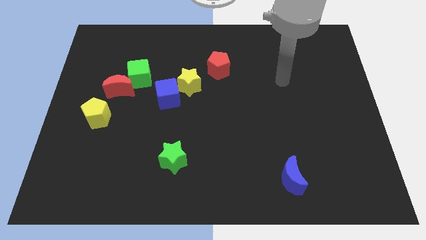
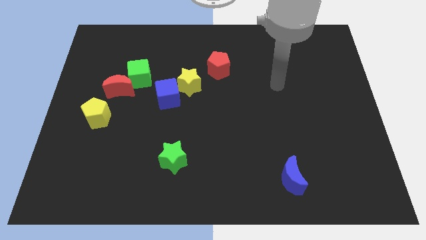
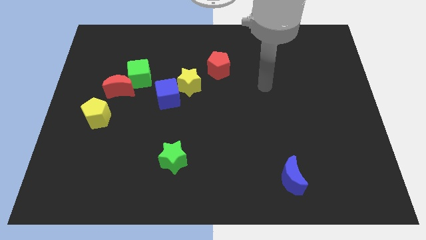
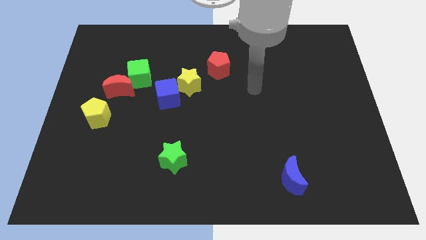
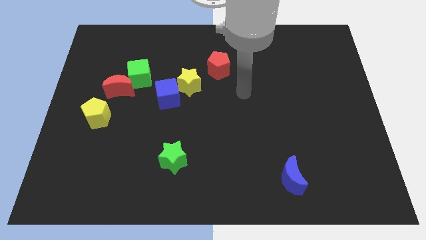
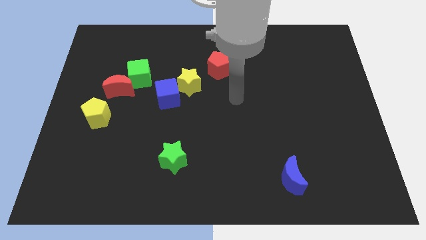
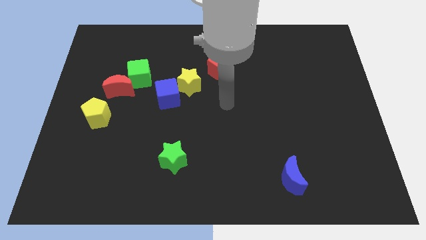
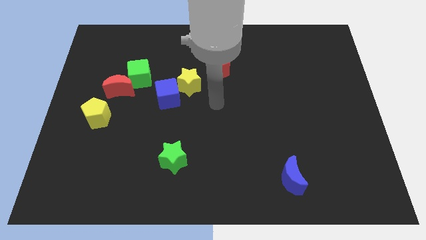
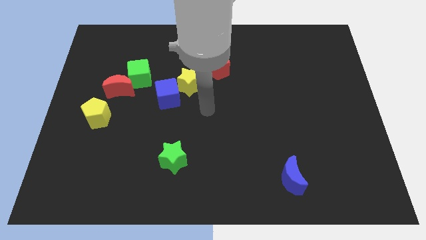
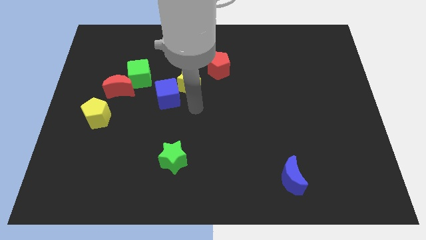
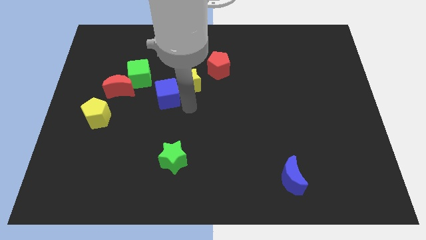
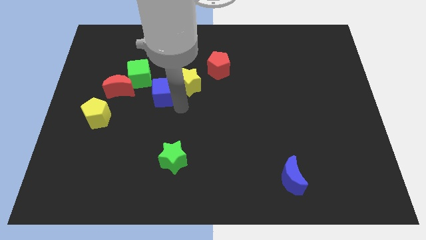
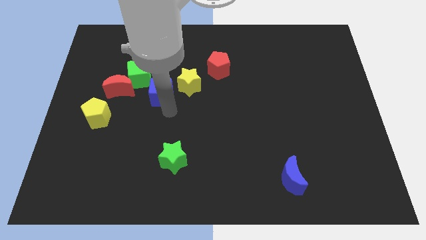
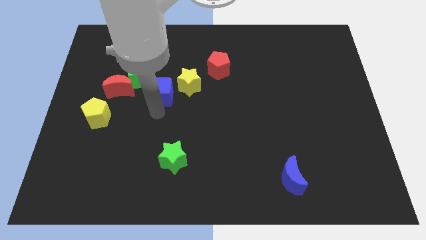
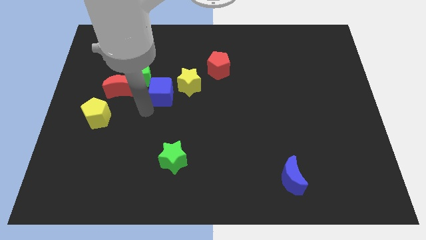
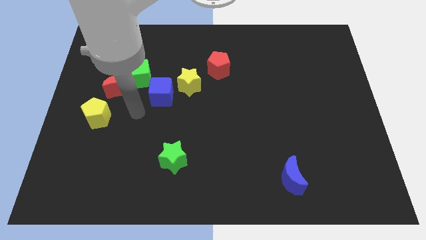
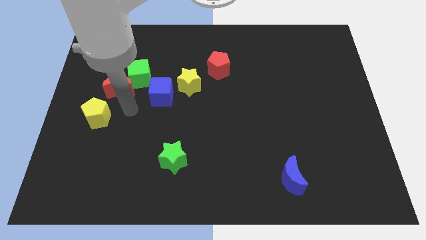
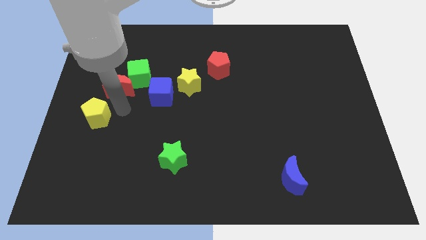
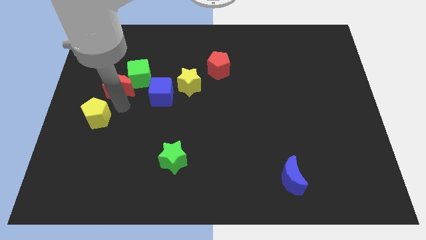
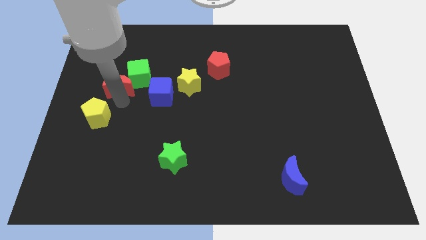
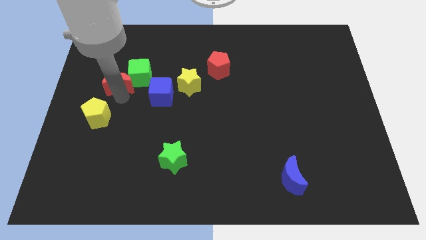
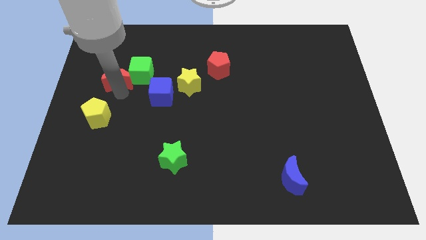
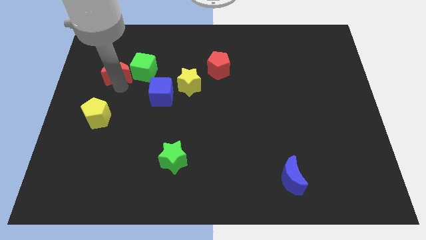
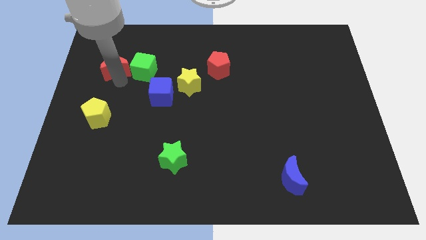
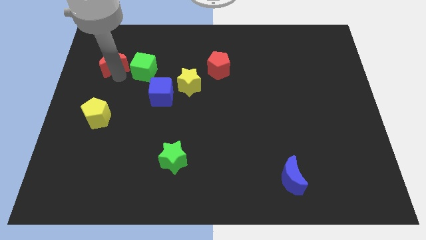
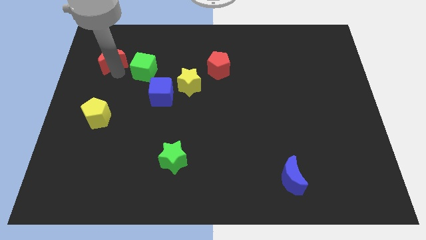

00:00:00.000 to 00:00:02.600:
move the red moon away from the green cube and yellow pentagon

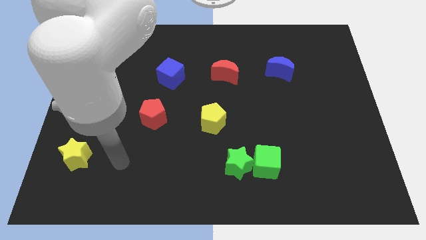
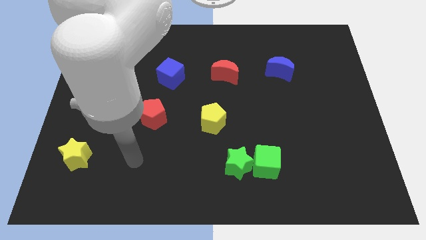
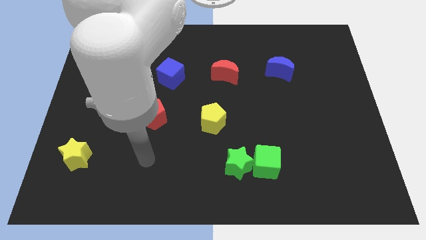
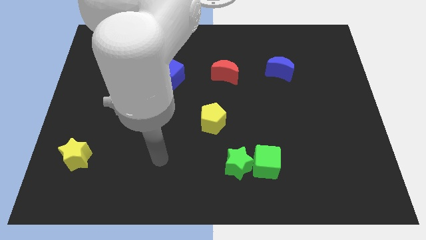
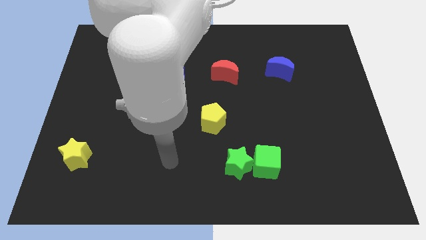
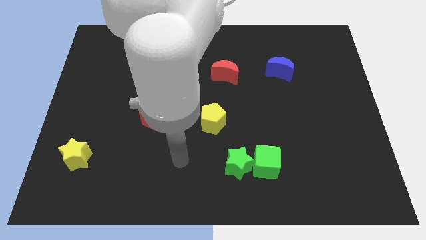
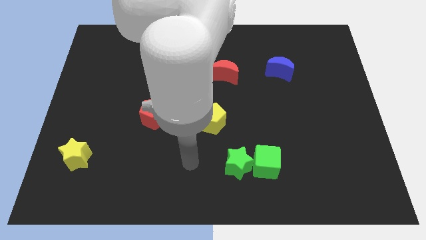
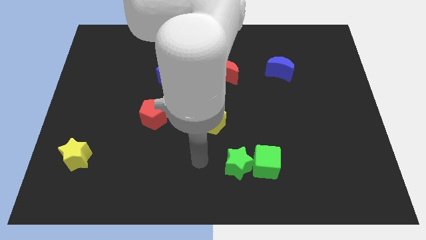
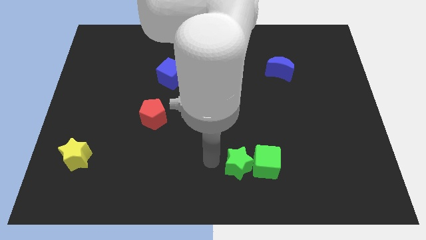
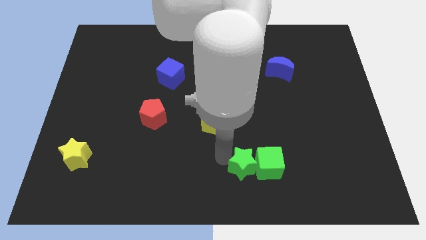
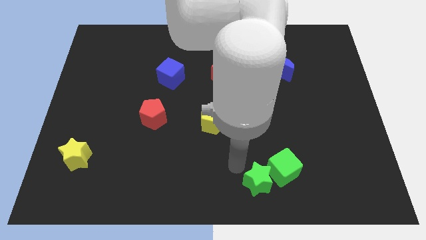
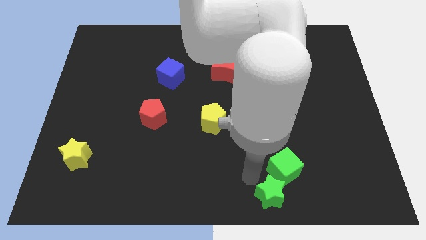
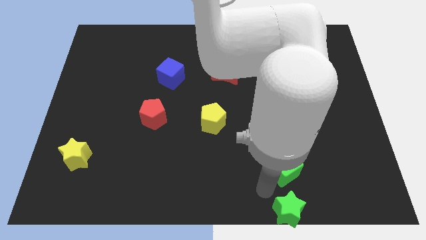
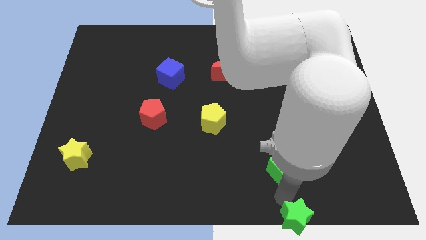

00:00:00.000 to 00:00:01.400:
pull the green cube apart from the green star

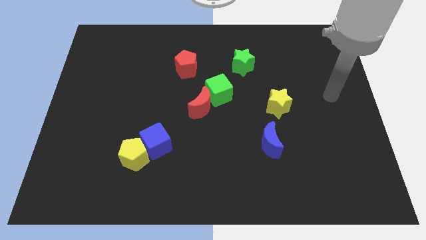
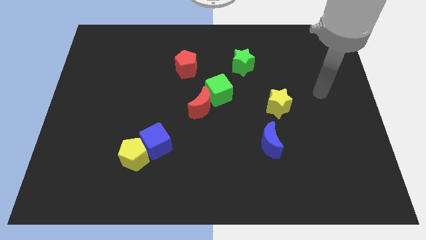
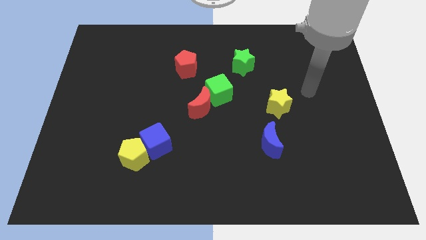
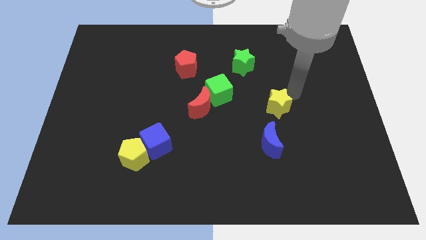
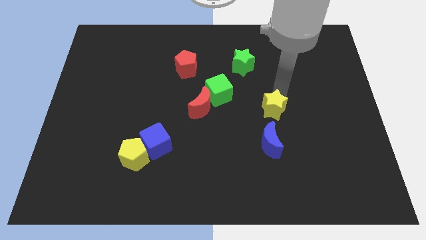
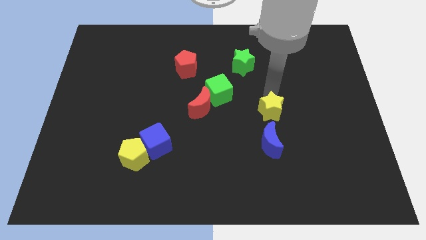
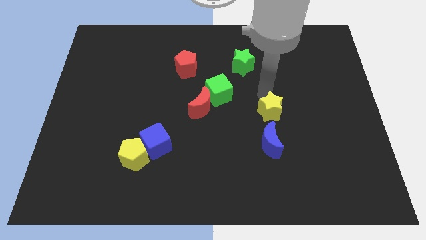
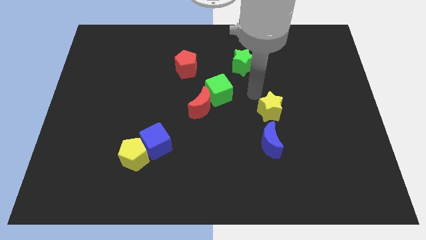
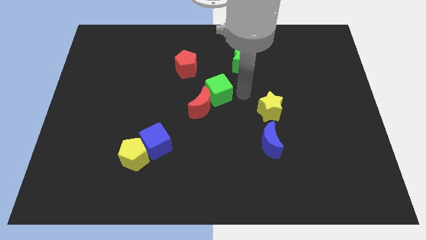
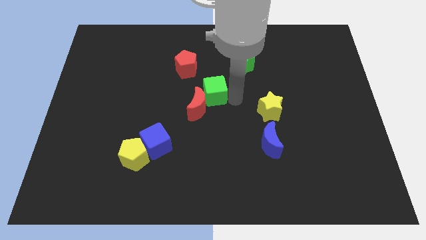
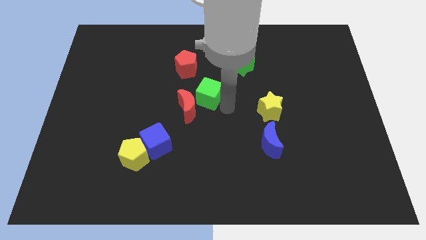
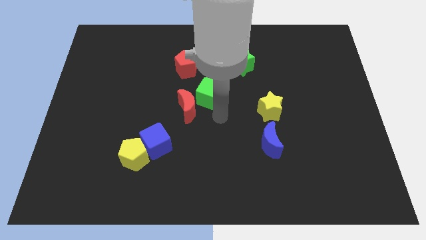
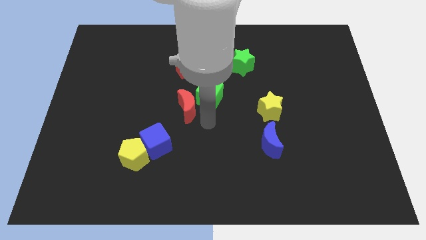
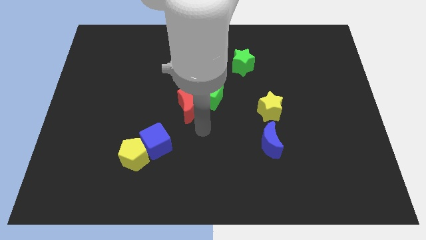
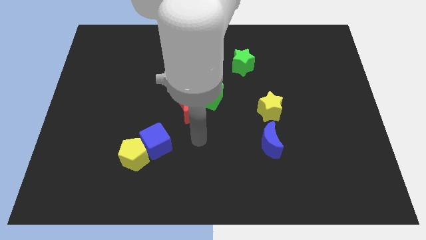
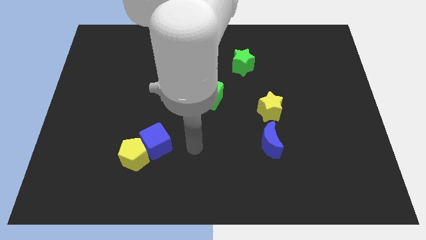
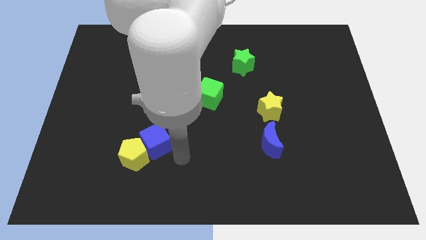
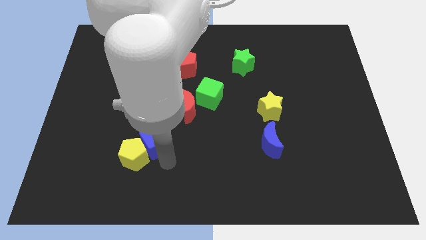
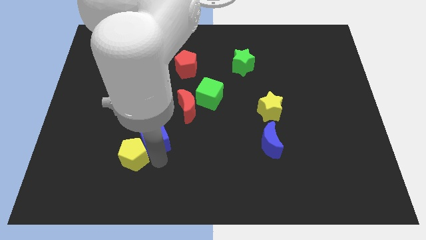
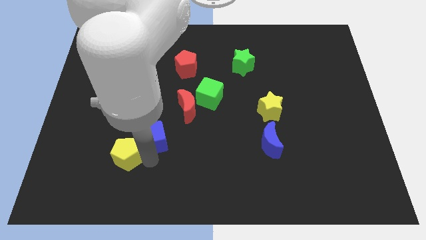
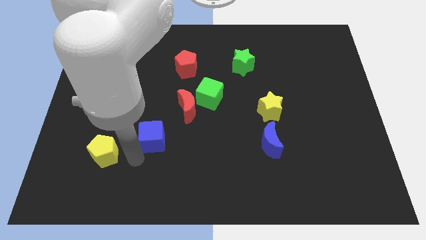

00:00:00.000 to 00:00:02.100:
separate the blue cube from the yellow pentagon

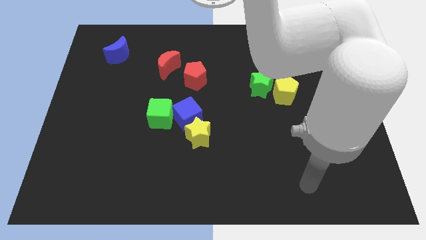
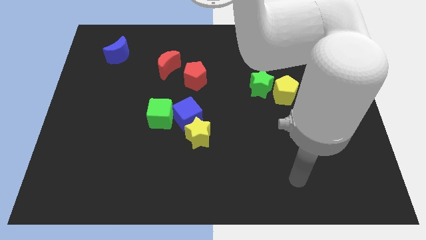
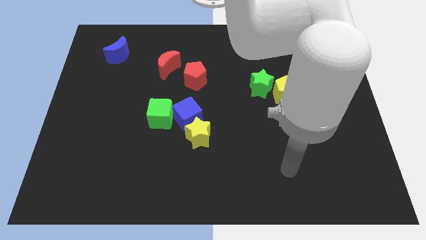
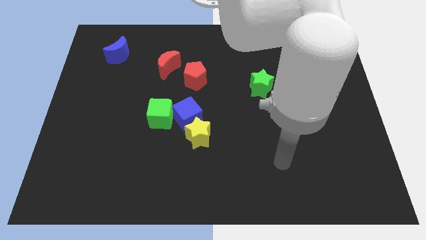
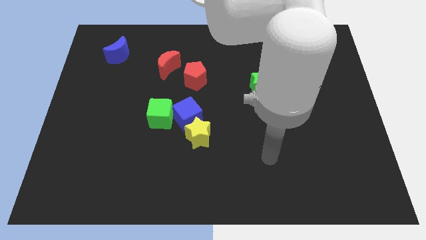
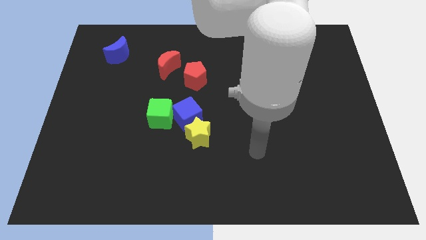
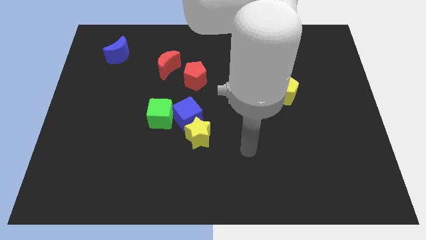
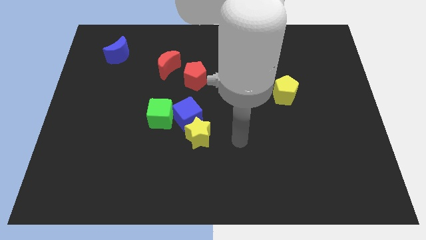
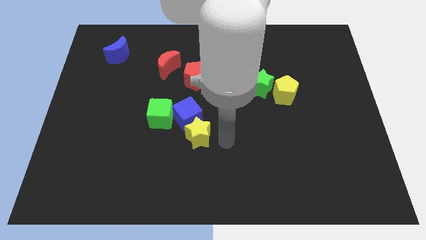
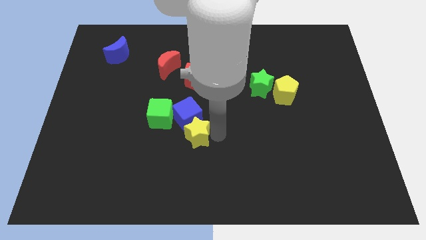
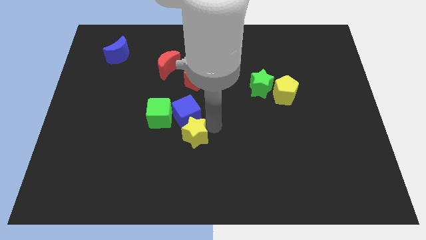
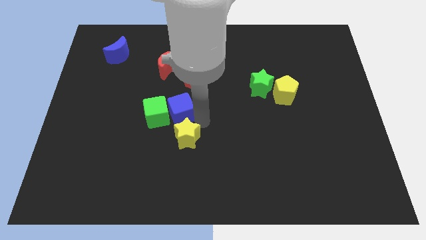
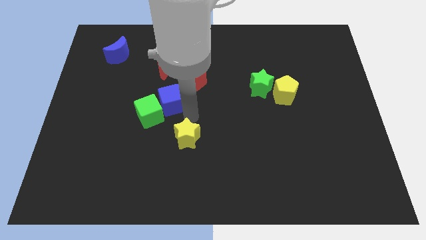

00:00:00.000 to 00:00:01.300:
separate the yellow star from the blue cube

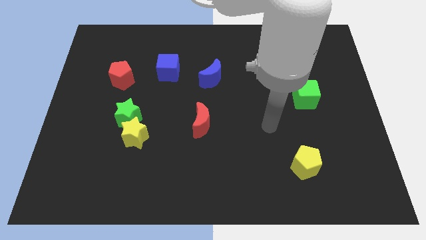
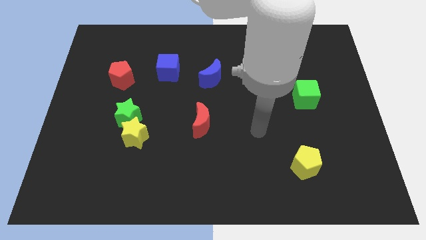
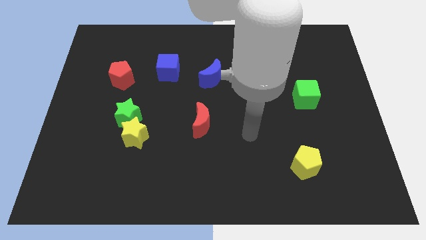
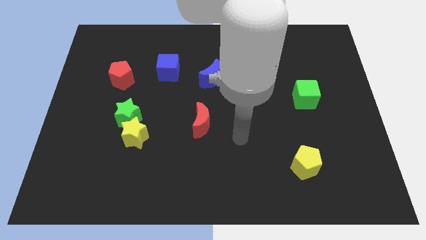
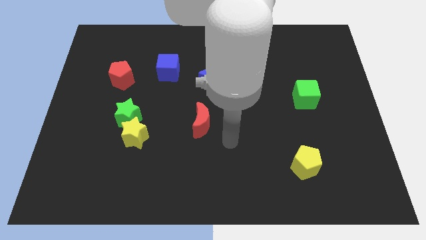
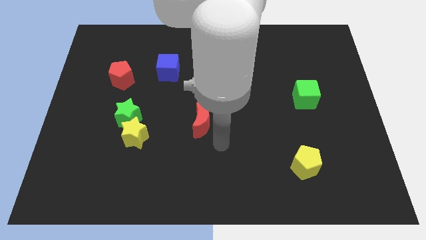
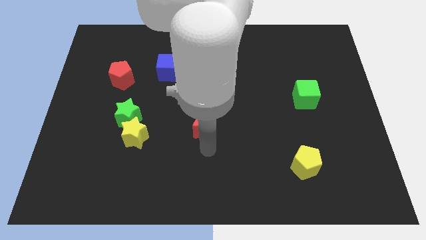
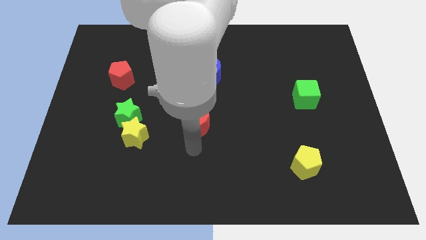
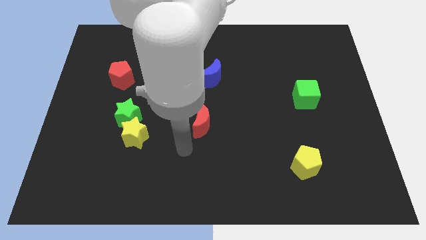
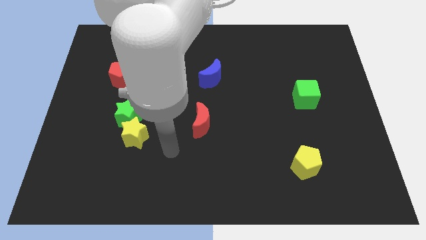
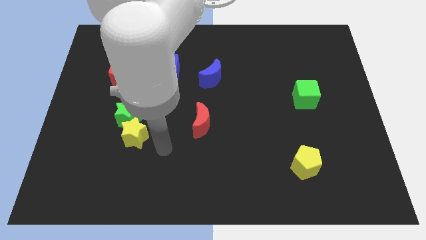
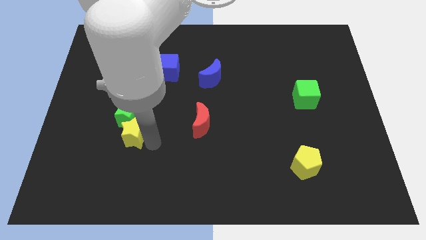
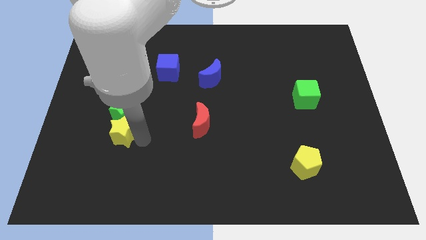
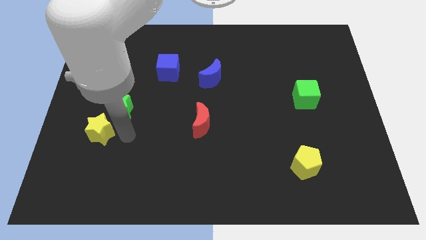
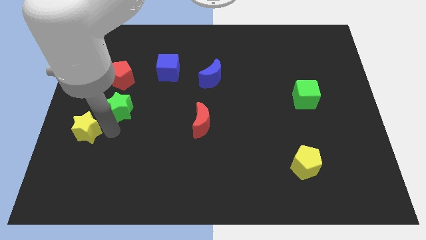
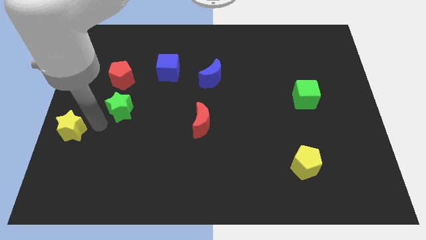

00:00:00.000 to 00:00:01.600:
move the green star away from the yellow star

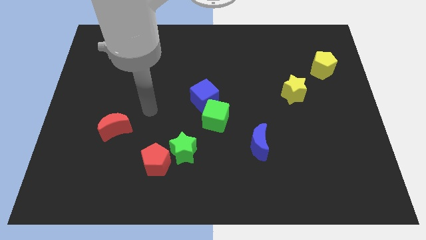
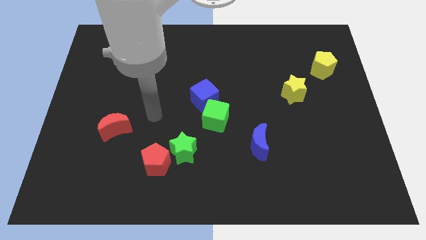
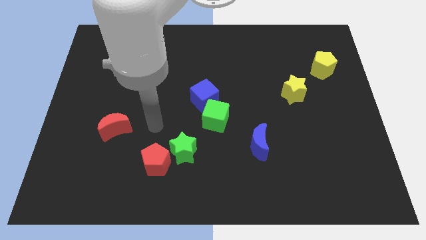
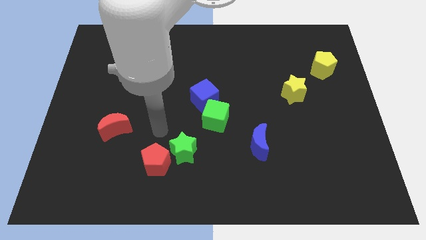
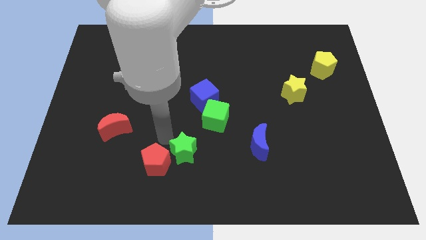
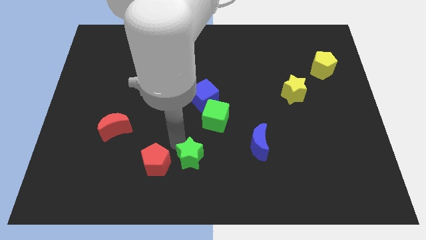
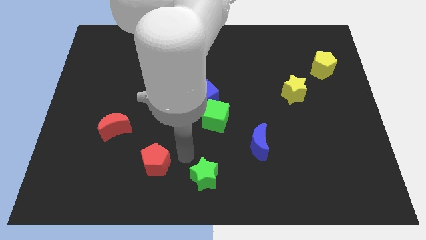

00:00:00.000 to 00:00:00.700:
separate the red pentagon from the green star
